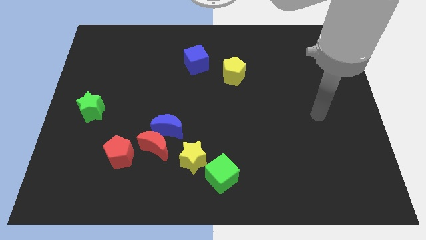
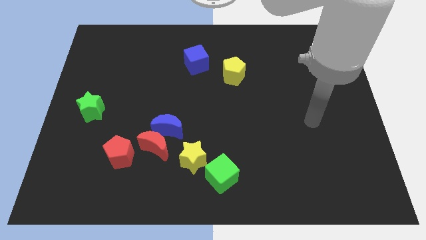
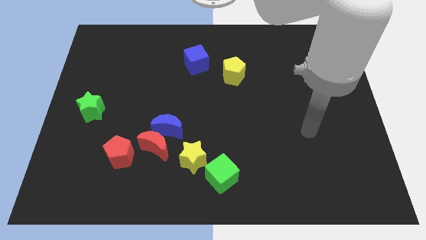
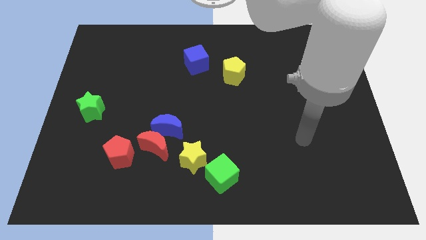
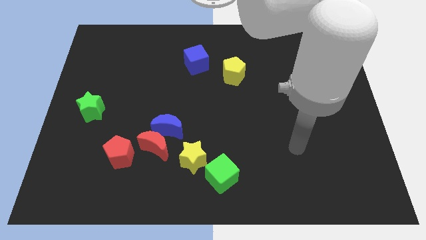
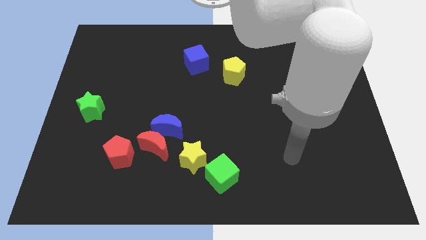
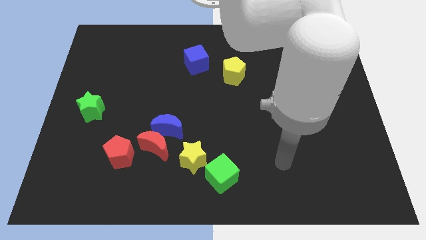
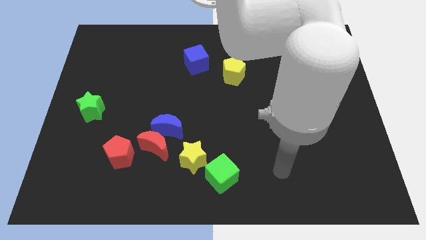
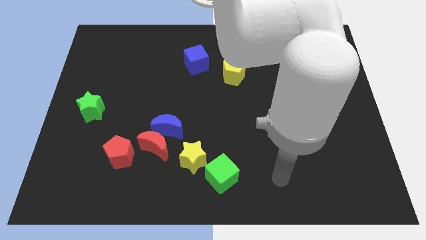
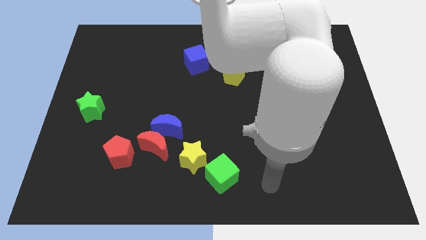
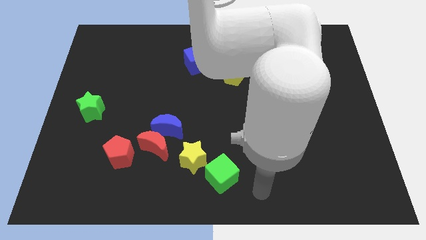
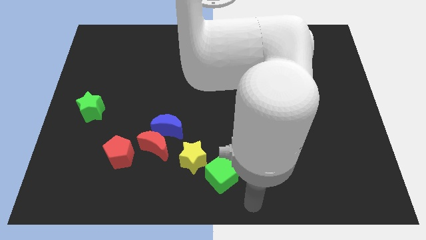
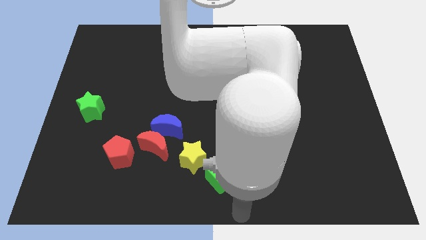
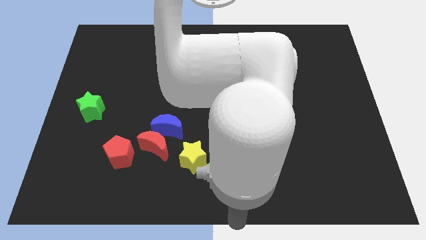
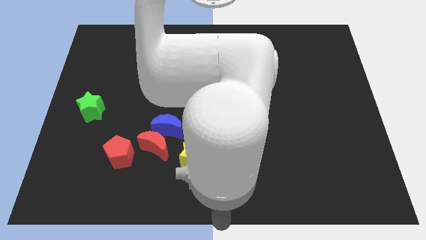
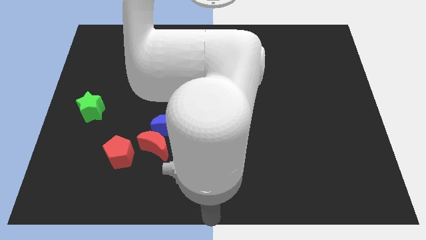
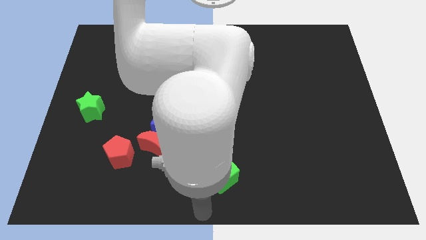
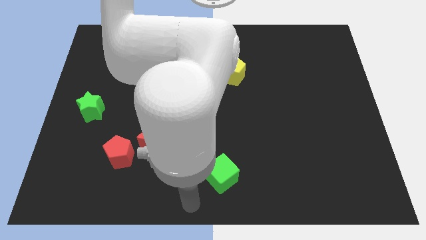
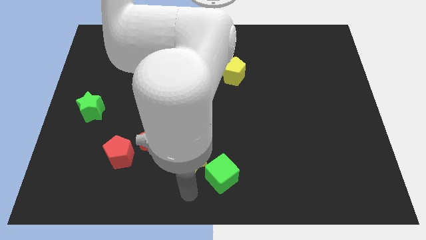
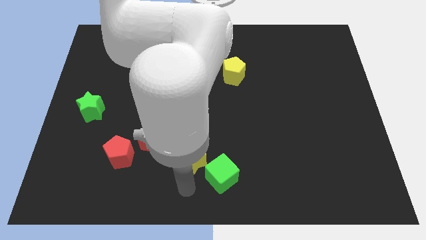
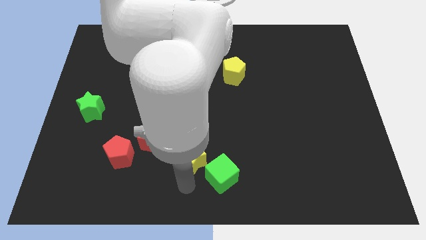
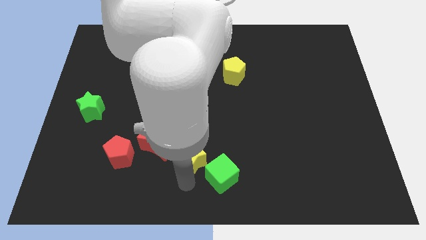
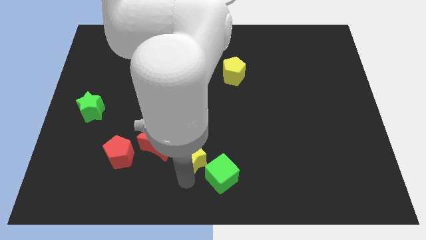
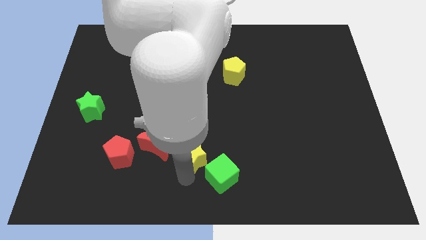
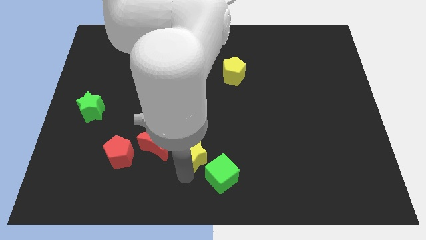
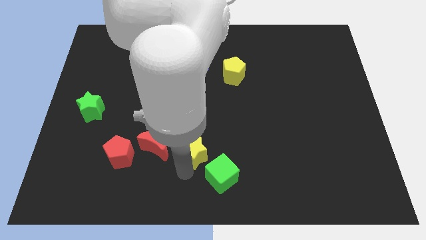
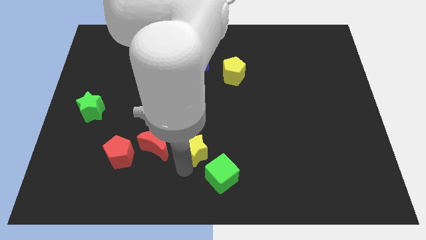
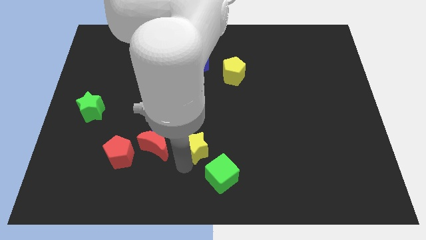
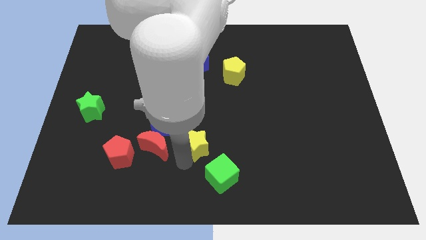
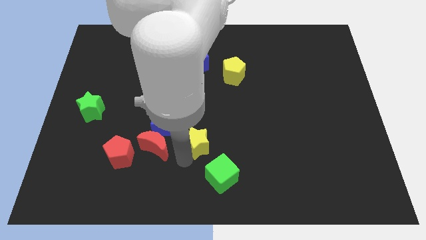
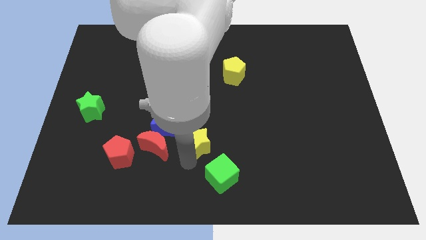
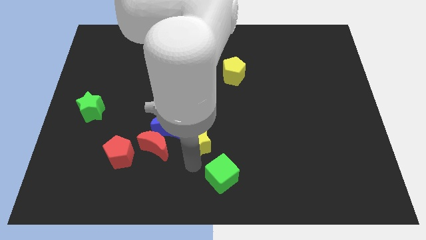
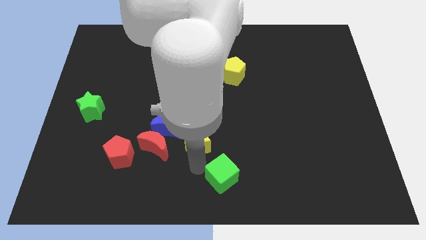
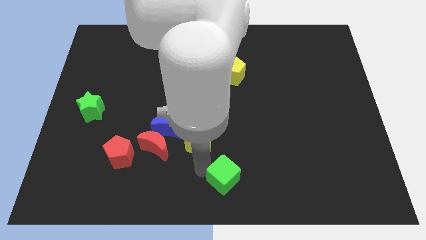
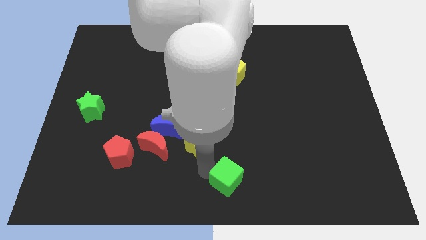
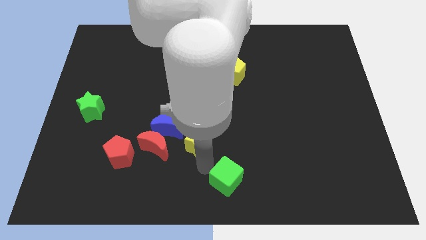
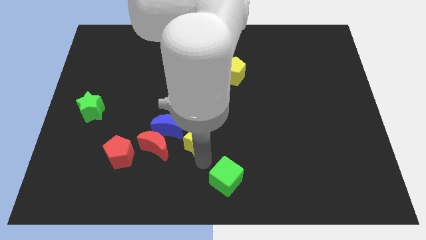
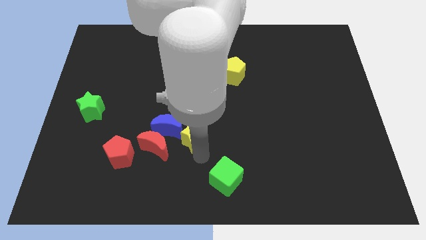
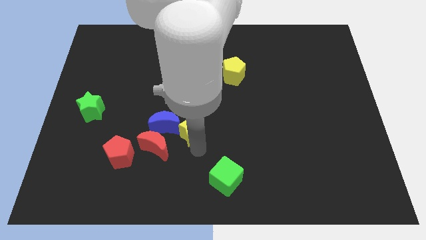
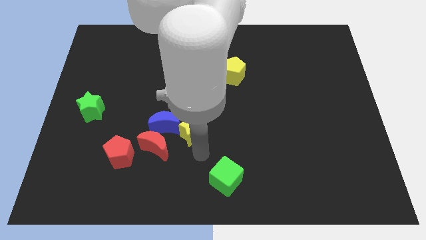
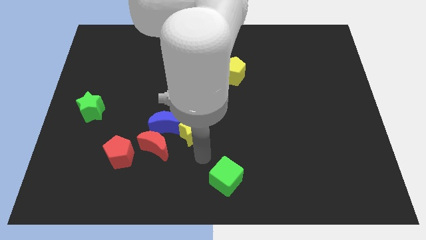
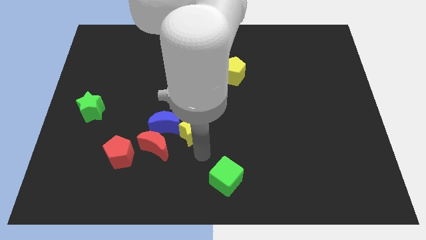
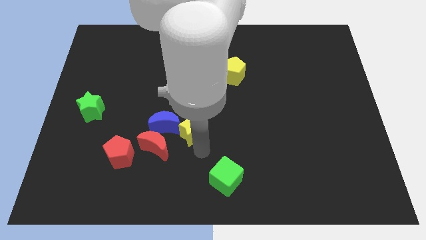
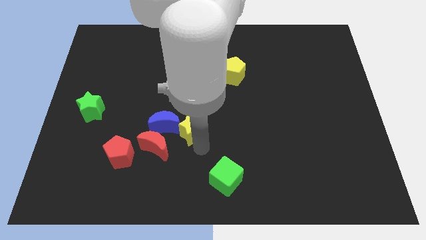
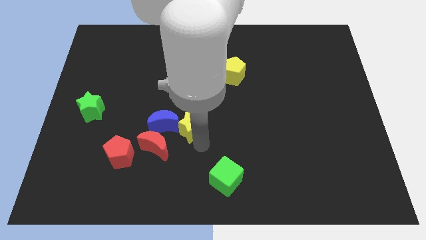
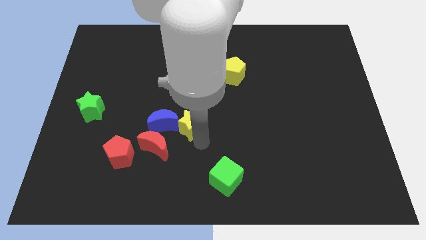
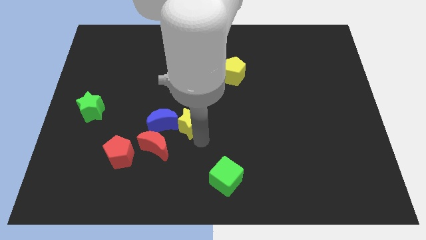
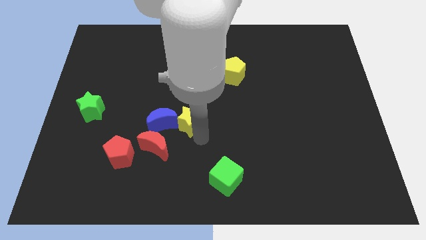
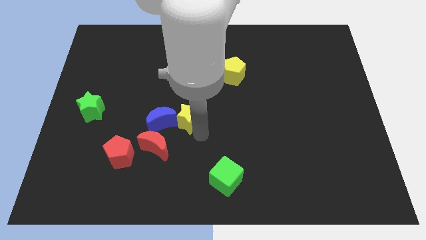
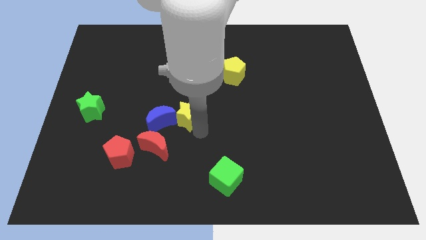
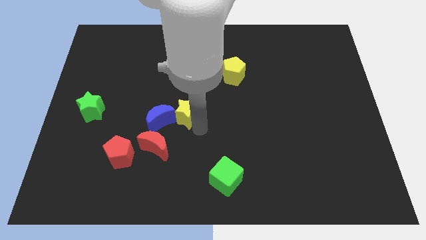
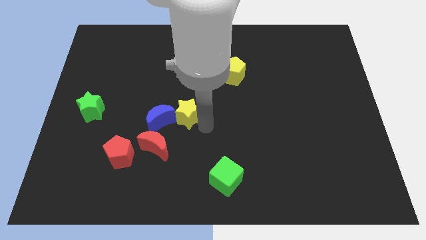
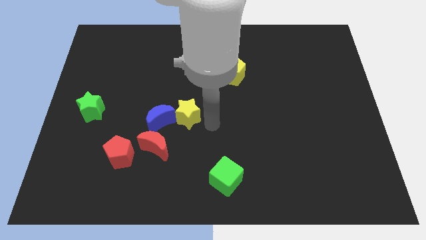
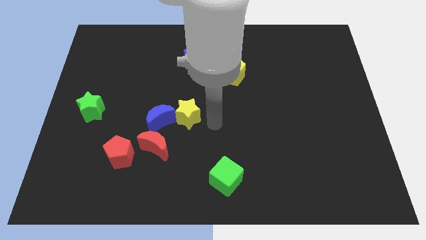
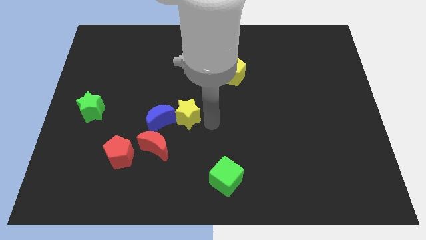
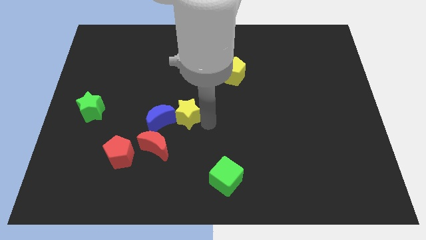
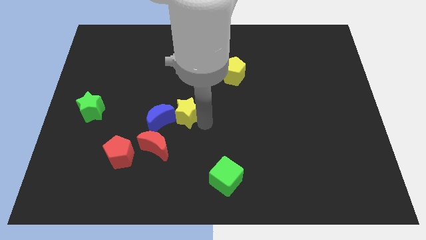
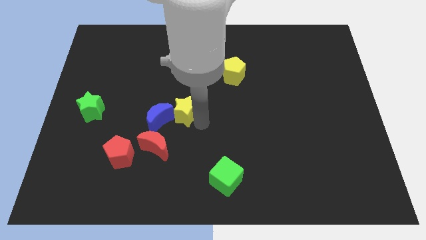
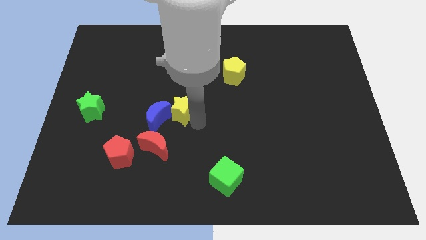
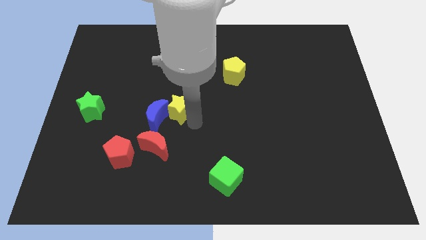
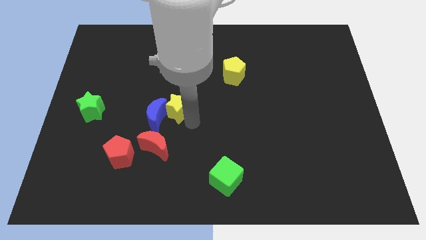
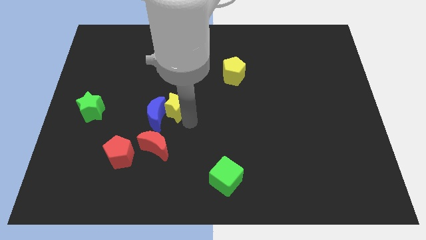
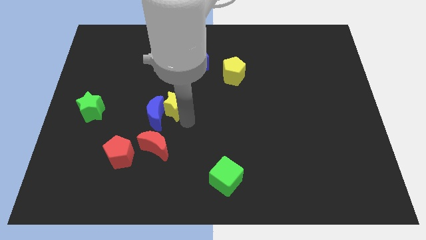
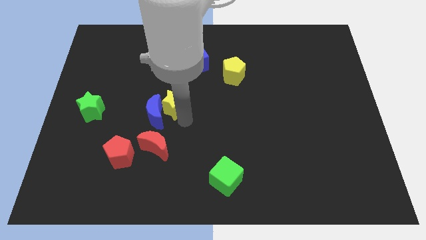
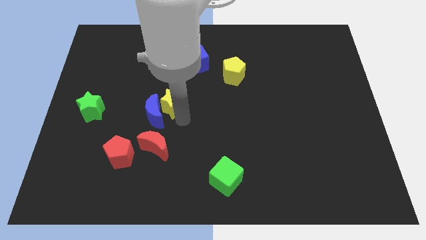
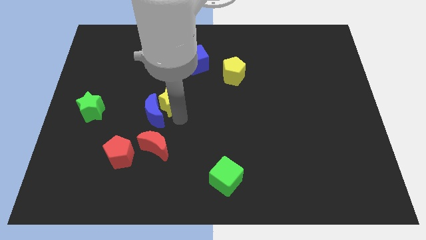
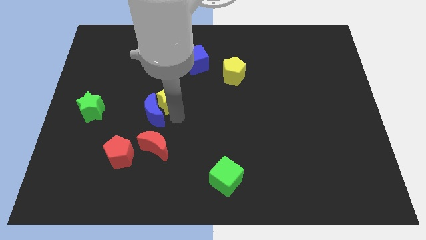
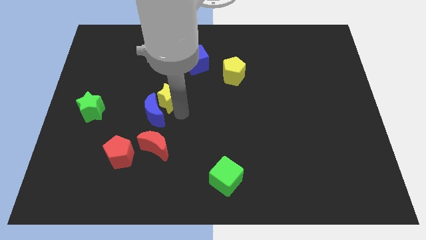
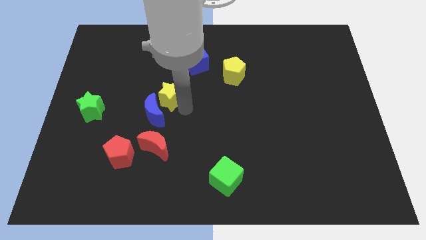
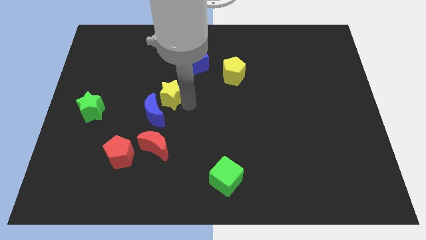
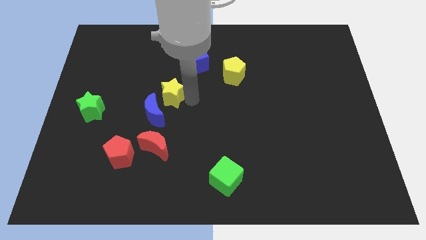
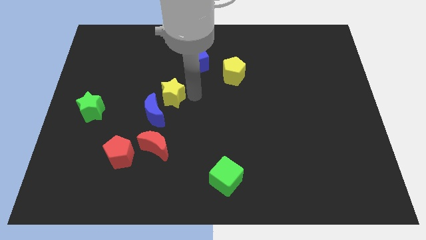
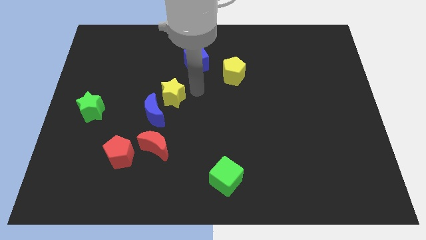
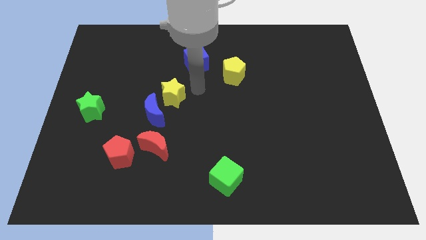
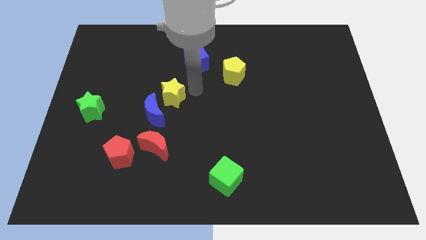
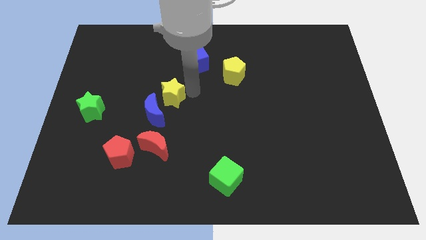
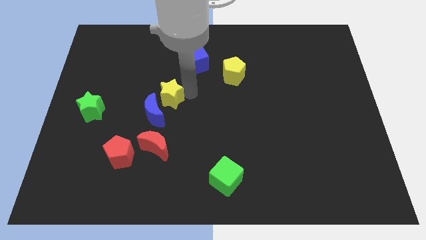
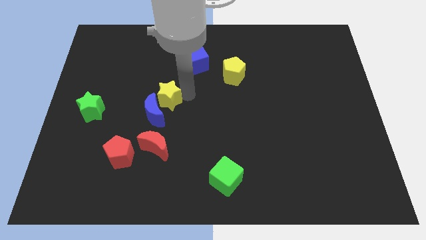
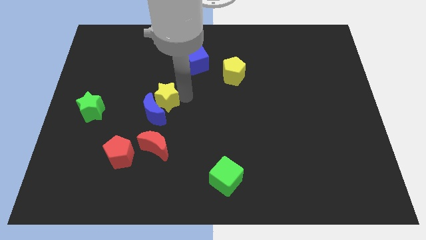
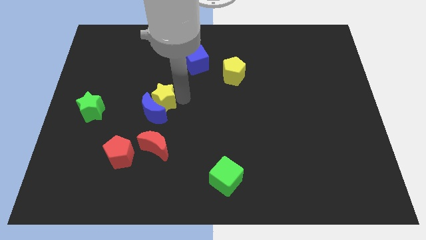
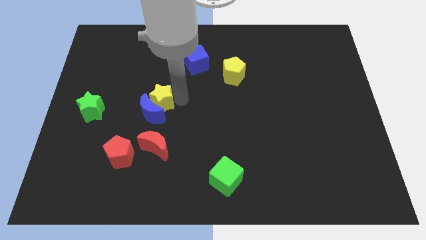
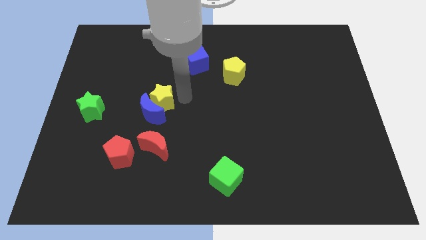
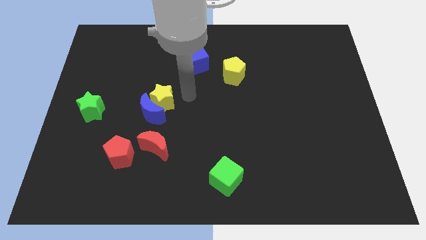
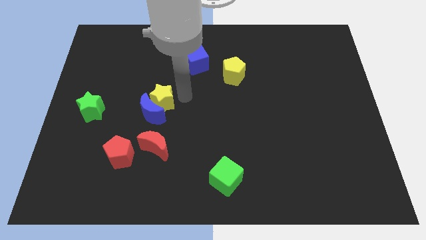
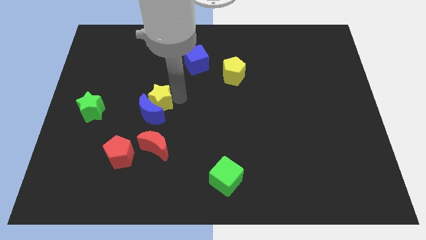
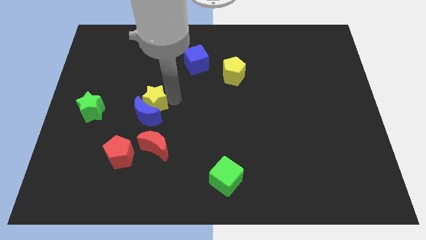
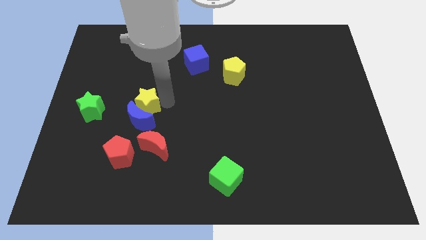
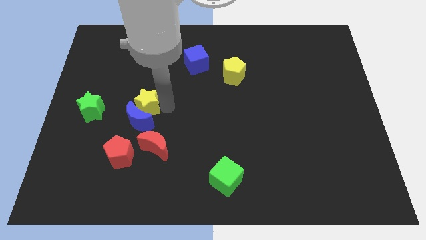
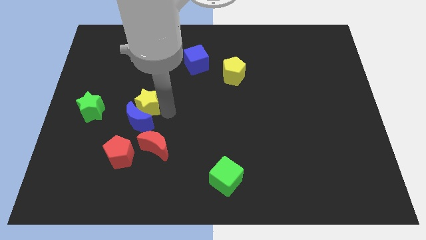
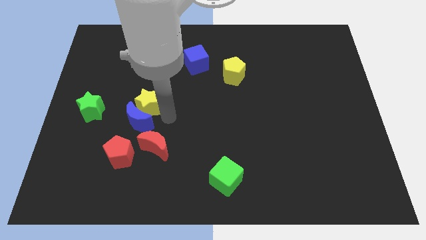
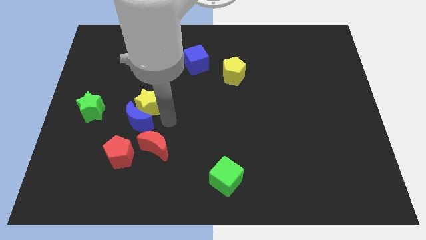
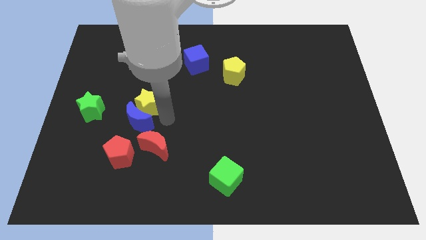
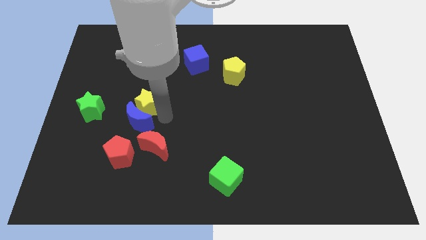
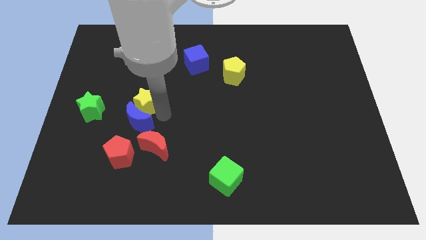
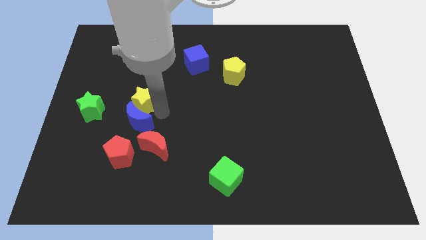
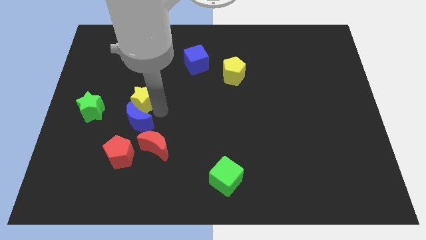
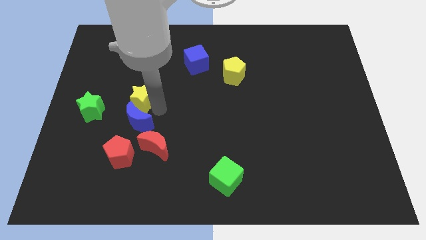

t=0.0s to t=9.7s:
move the yellow star up and then to the left
